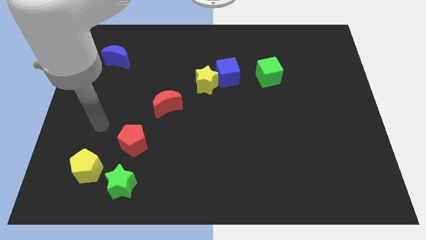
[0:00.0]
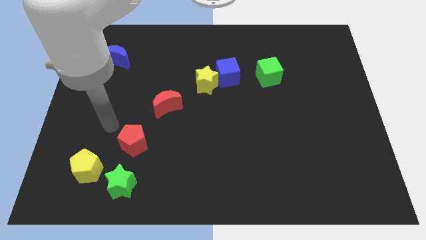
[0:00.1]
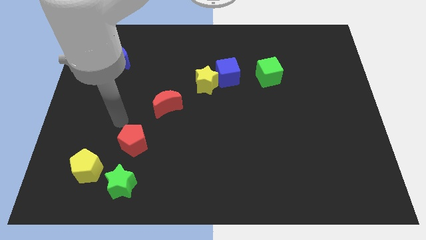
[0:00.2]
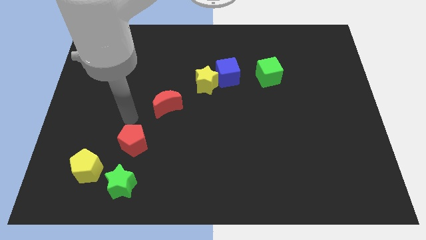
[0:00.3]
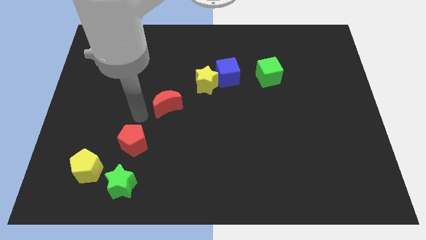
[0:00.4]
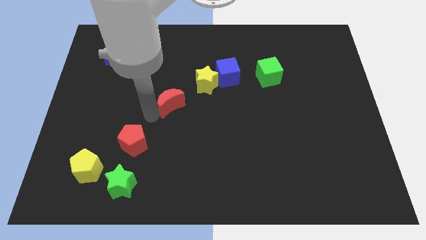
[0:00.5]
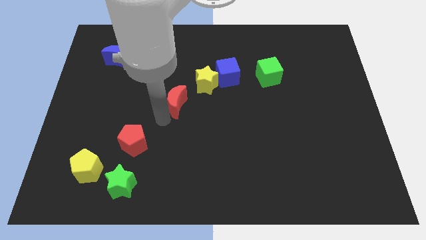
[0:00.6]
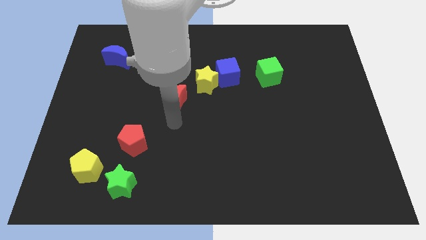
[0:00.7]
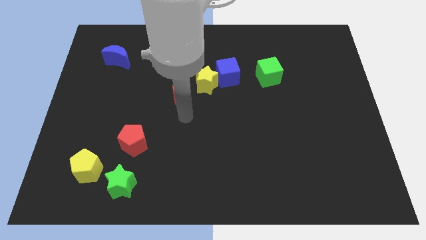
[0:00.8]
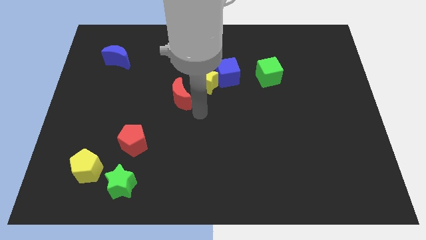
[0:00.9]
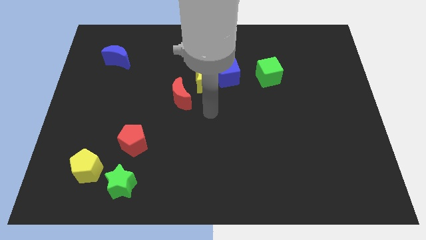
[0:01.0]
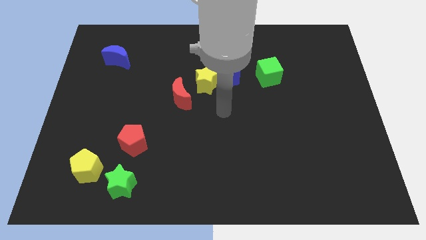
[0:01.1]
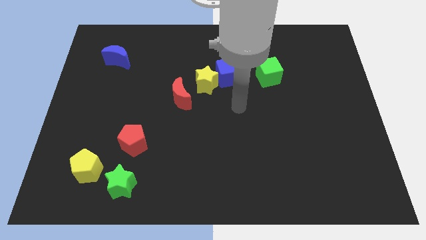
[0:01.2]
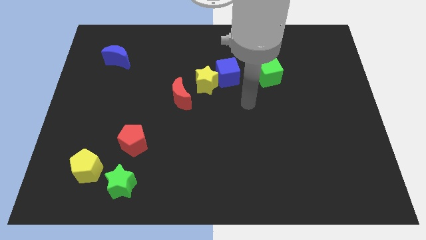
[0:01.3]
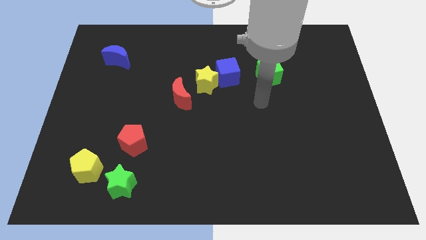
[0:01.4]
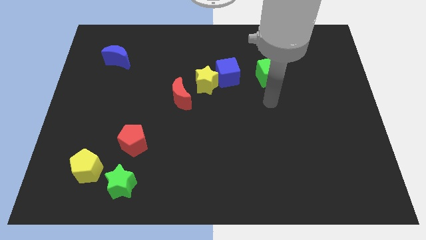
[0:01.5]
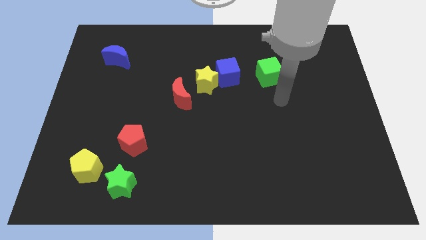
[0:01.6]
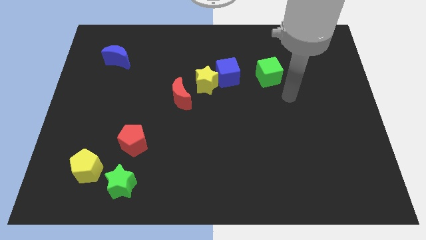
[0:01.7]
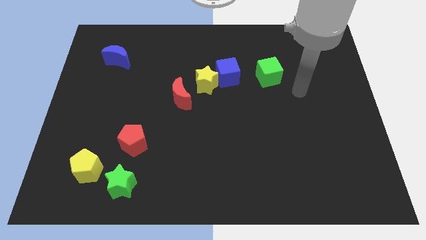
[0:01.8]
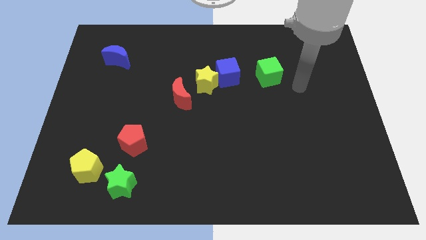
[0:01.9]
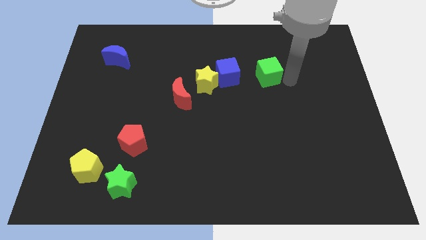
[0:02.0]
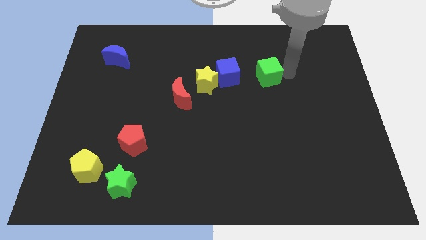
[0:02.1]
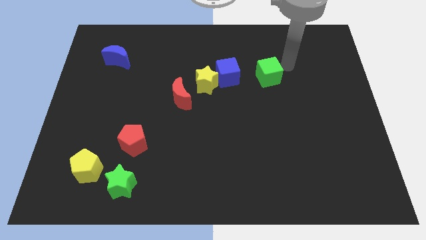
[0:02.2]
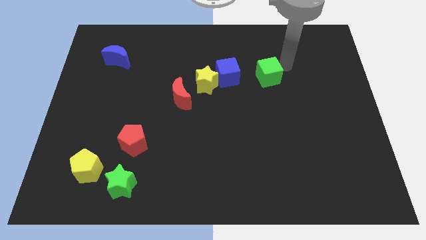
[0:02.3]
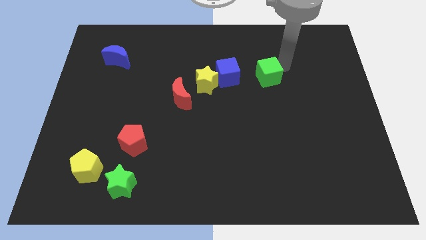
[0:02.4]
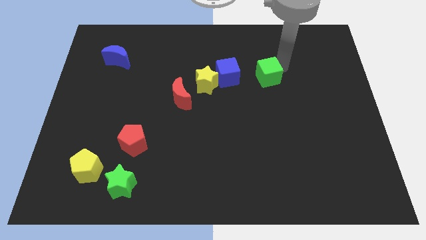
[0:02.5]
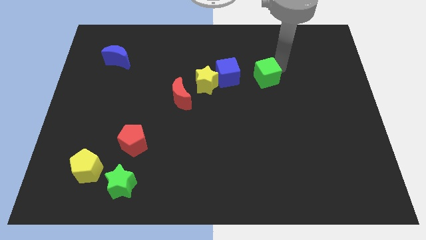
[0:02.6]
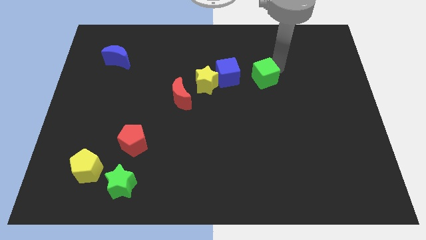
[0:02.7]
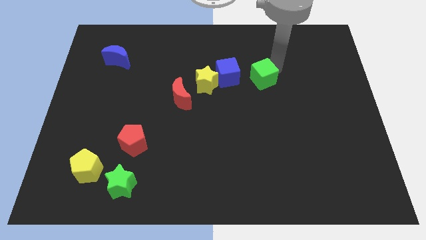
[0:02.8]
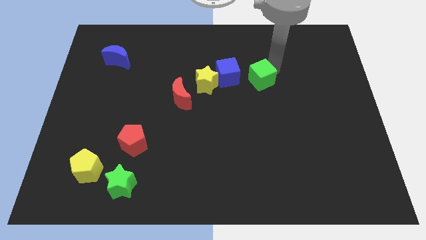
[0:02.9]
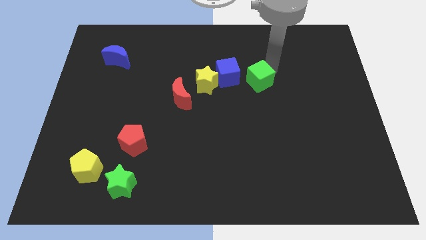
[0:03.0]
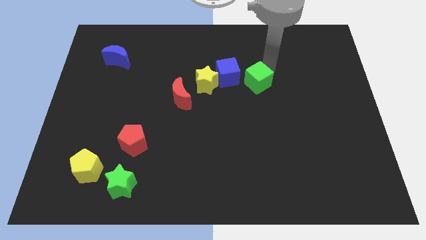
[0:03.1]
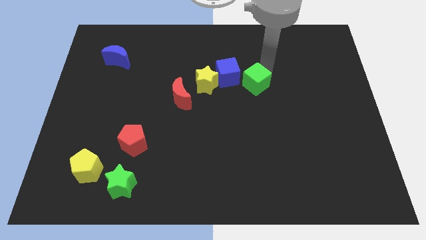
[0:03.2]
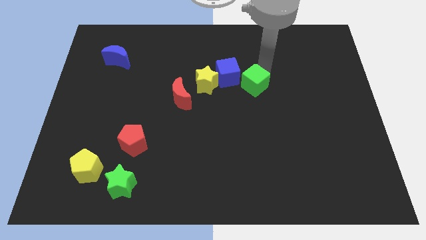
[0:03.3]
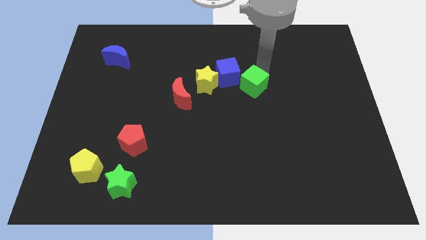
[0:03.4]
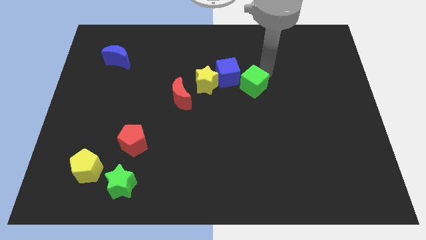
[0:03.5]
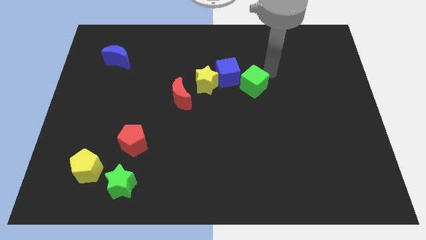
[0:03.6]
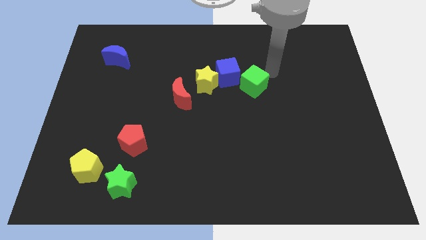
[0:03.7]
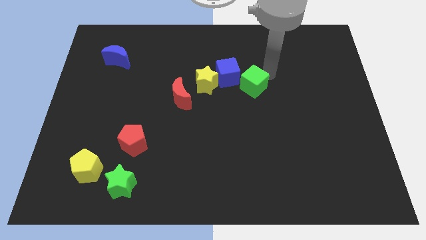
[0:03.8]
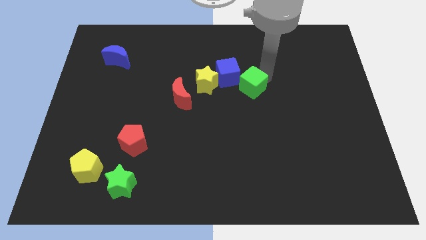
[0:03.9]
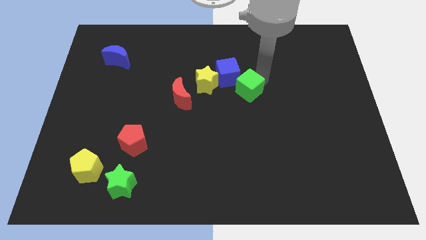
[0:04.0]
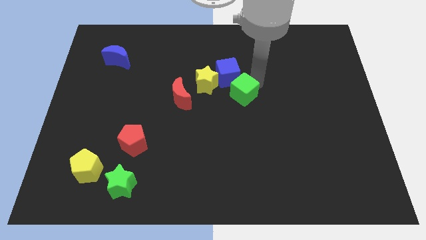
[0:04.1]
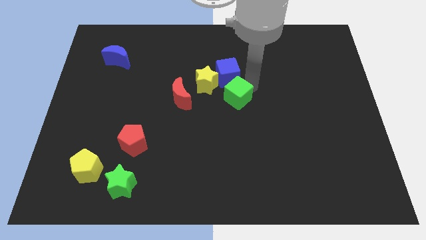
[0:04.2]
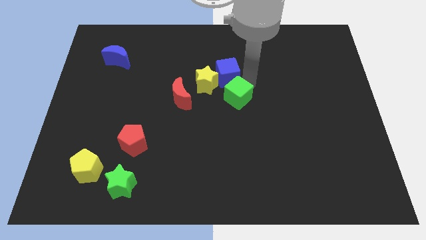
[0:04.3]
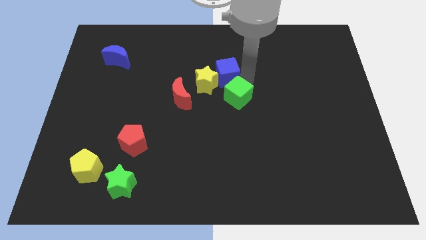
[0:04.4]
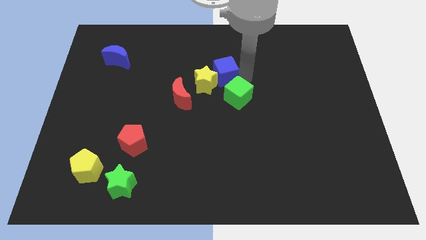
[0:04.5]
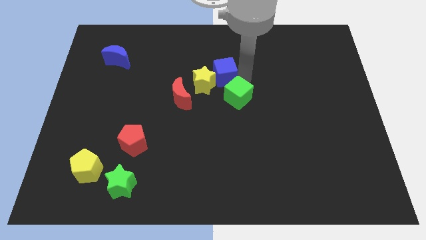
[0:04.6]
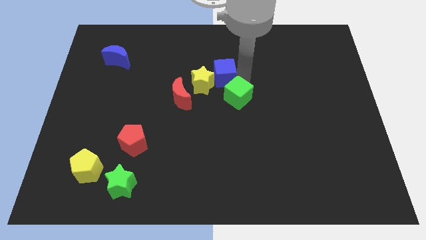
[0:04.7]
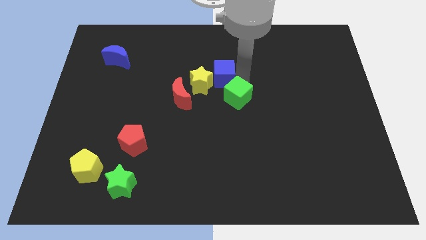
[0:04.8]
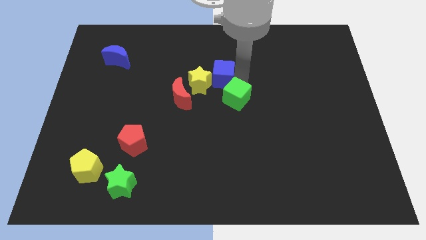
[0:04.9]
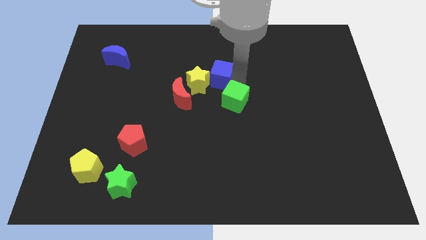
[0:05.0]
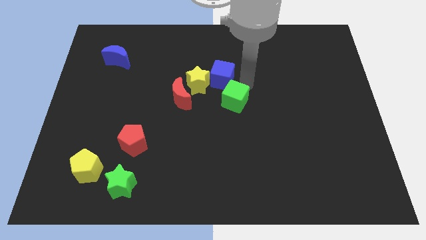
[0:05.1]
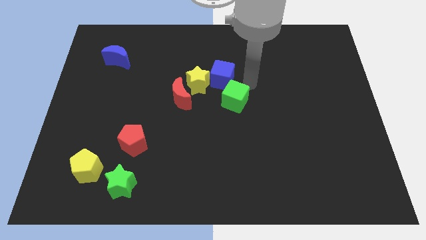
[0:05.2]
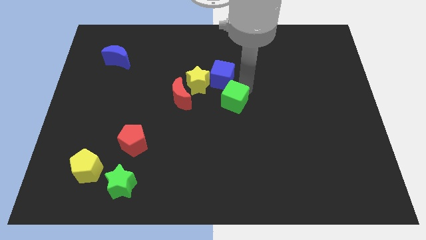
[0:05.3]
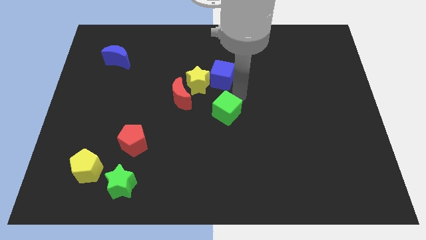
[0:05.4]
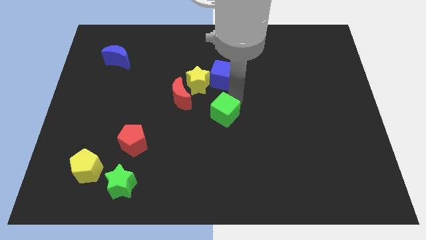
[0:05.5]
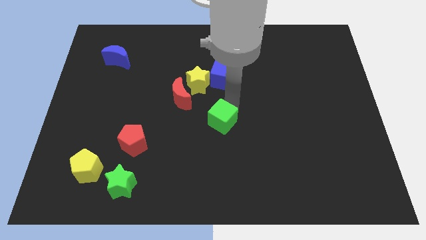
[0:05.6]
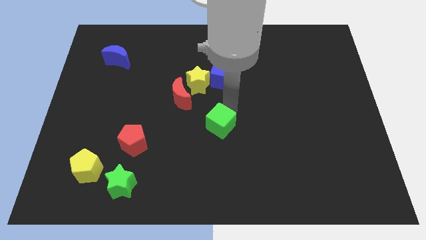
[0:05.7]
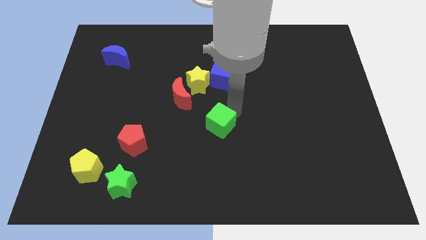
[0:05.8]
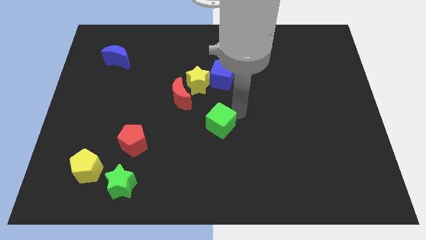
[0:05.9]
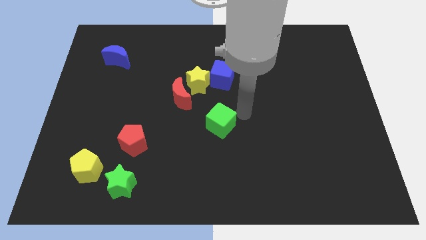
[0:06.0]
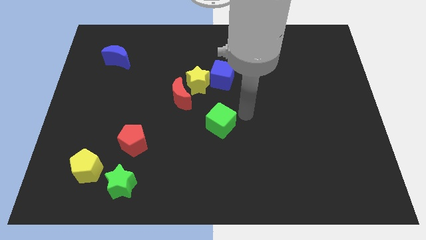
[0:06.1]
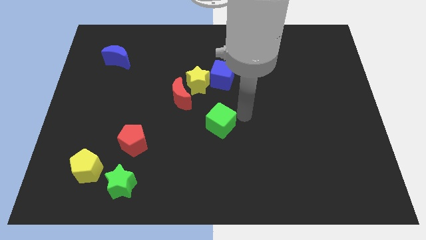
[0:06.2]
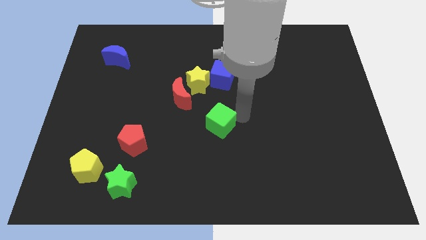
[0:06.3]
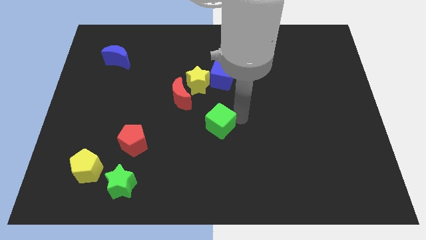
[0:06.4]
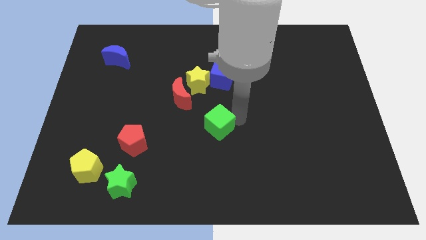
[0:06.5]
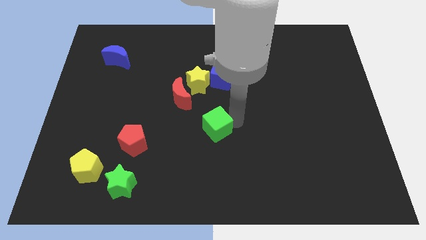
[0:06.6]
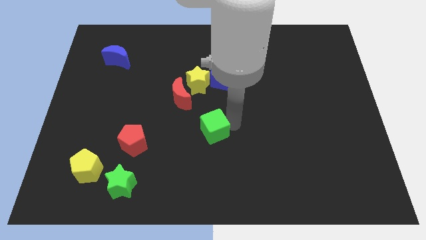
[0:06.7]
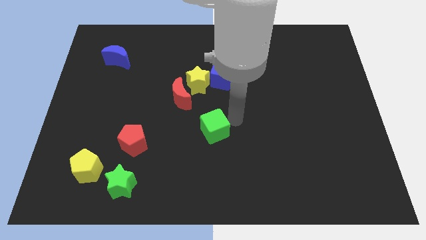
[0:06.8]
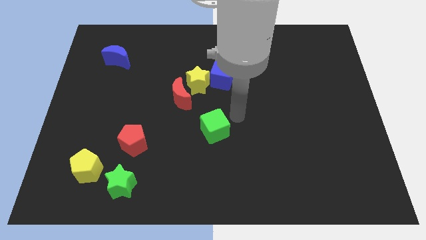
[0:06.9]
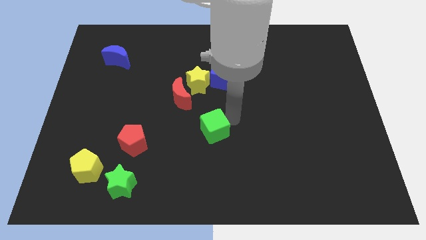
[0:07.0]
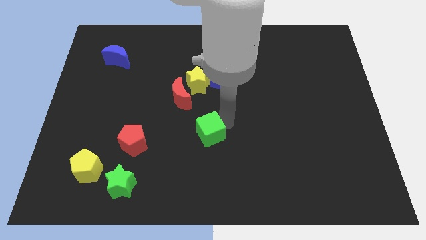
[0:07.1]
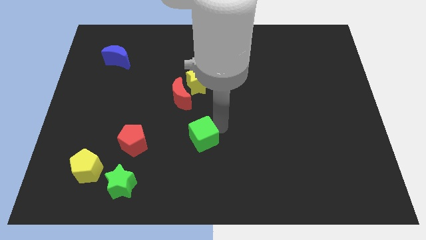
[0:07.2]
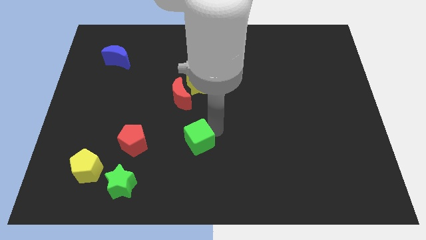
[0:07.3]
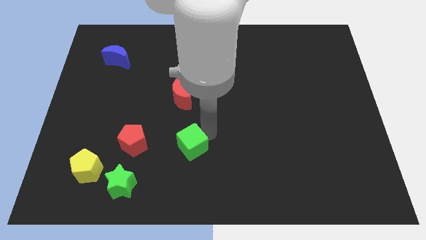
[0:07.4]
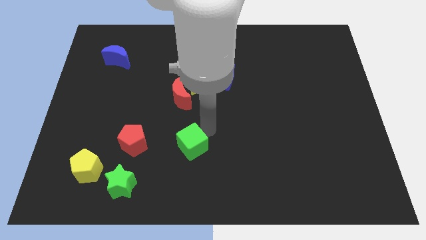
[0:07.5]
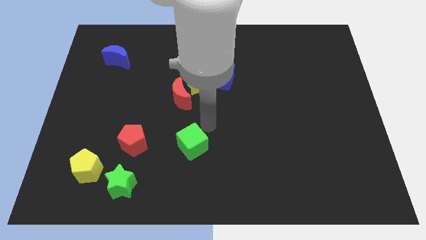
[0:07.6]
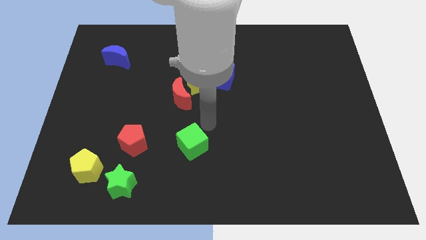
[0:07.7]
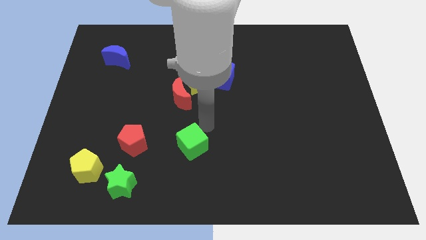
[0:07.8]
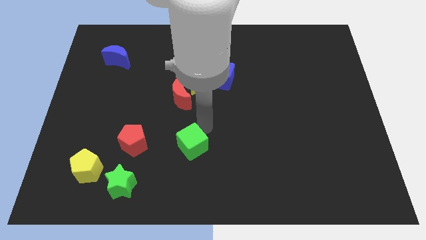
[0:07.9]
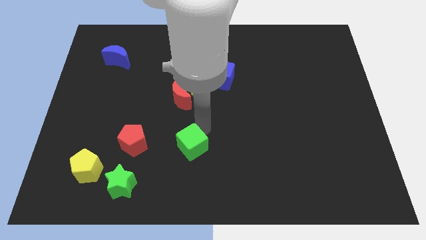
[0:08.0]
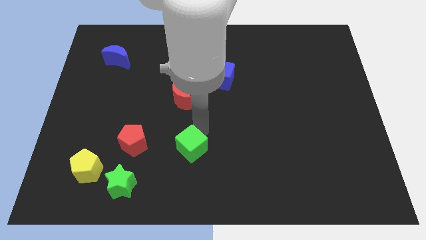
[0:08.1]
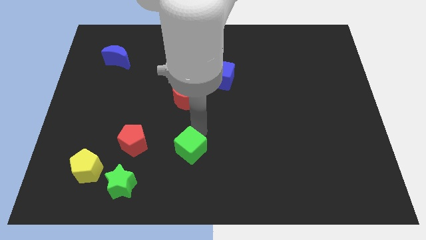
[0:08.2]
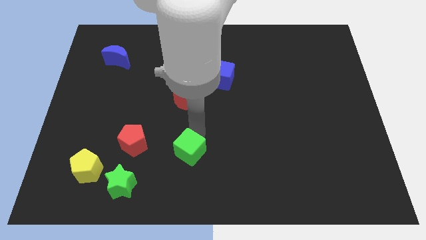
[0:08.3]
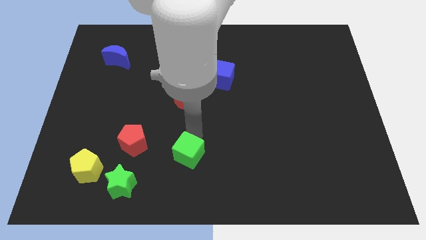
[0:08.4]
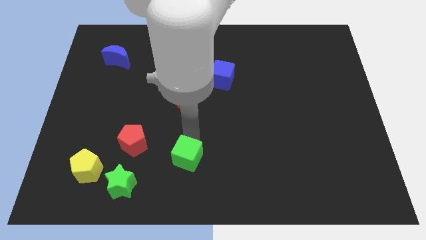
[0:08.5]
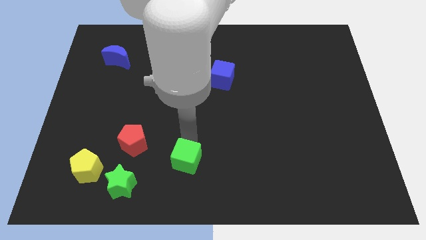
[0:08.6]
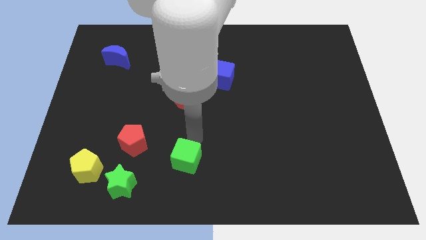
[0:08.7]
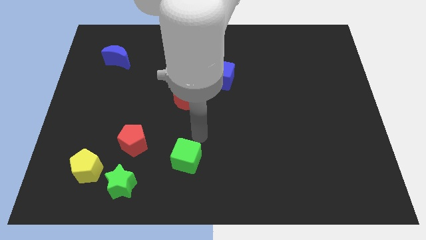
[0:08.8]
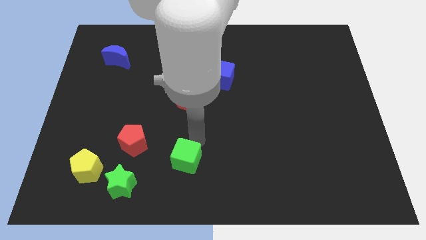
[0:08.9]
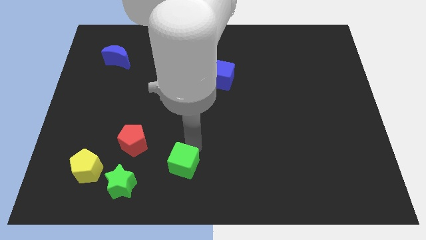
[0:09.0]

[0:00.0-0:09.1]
move the green cube just right of the green star
